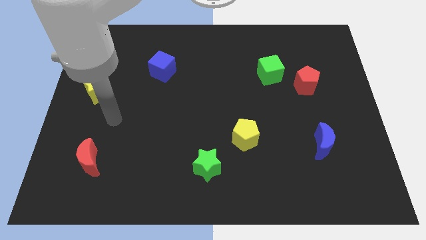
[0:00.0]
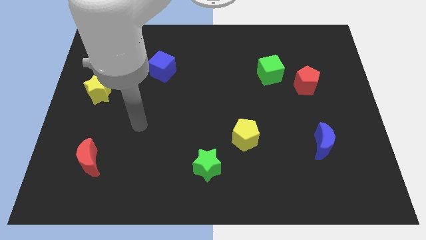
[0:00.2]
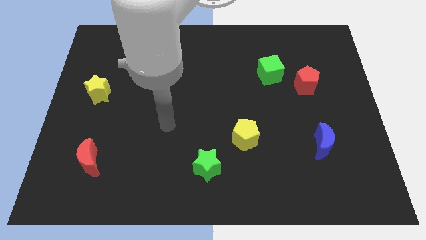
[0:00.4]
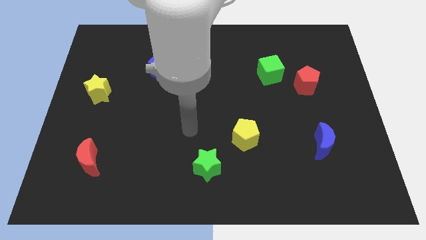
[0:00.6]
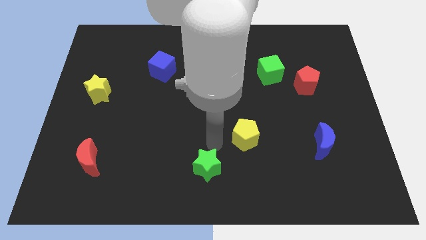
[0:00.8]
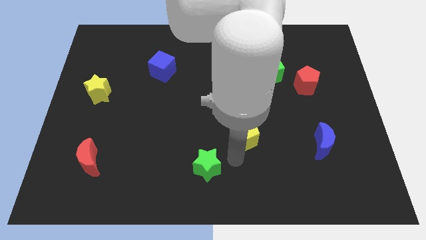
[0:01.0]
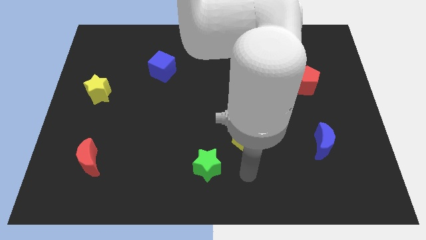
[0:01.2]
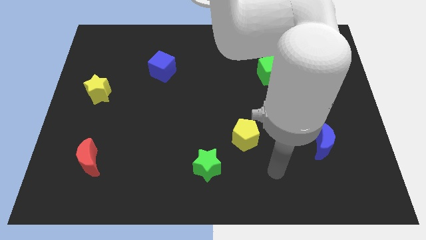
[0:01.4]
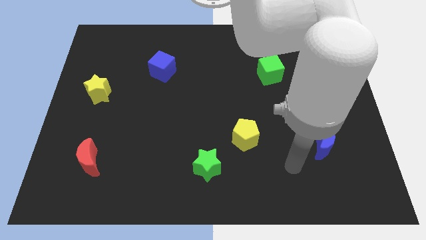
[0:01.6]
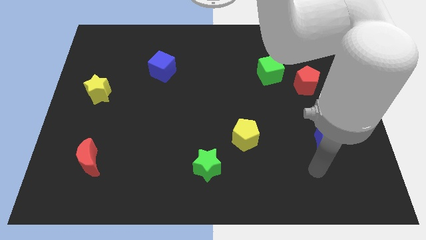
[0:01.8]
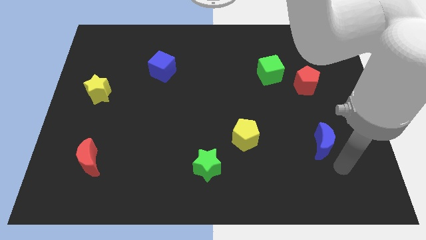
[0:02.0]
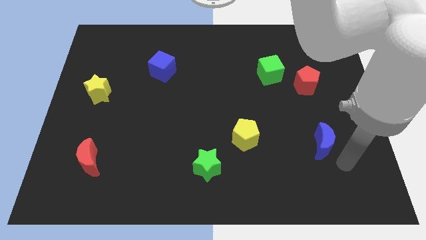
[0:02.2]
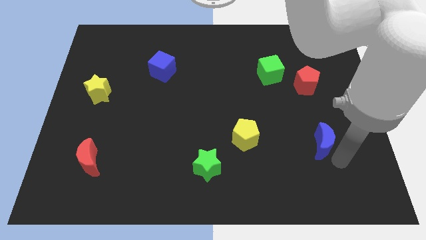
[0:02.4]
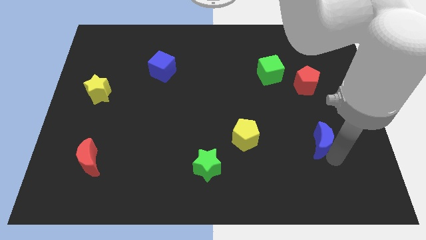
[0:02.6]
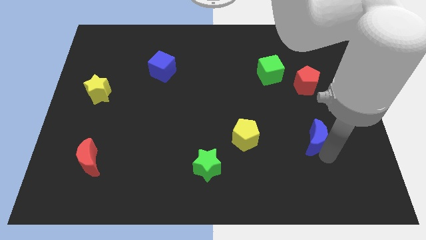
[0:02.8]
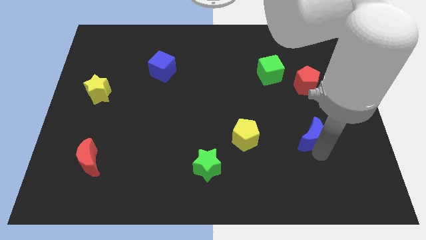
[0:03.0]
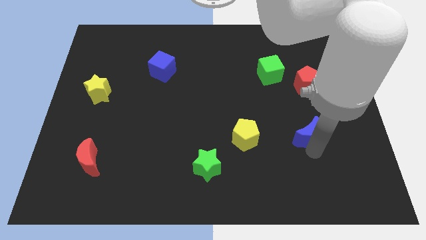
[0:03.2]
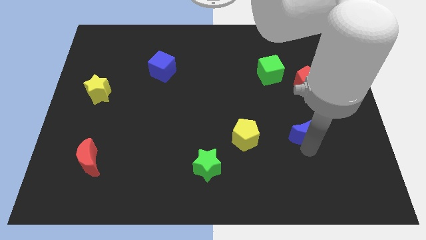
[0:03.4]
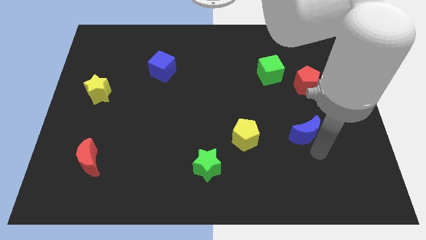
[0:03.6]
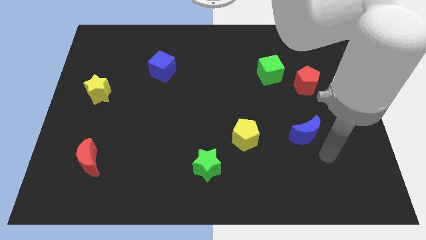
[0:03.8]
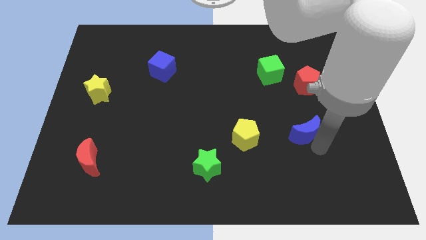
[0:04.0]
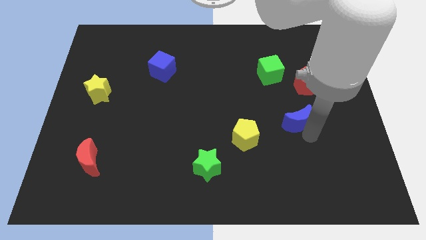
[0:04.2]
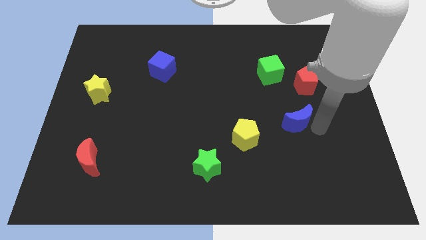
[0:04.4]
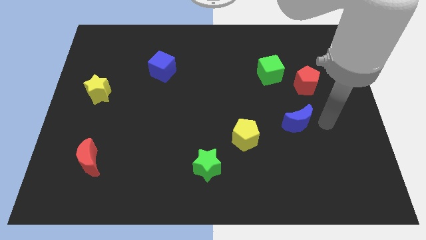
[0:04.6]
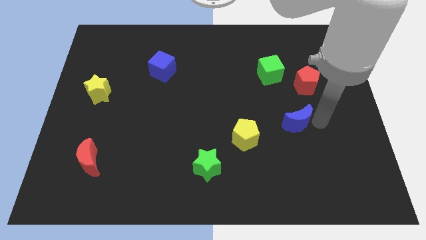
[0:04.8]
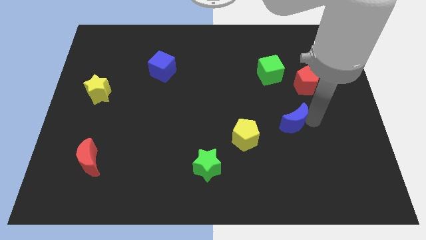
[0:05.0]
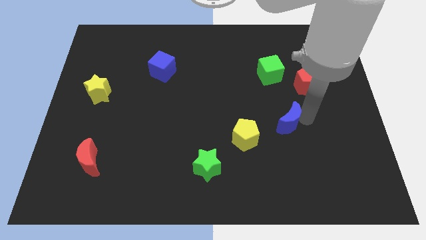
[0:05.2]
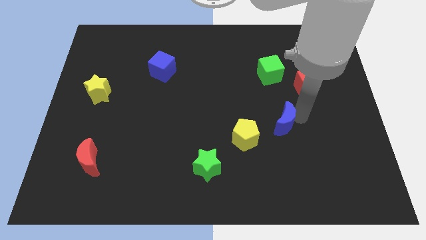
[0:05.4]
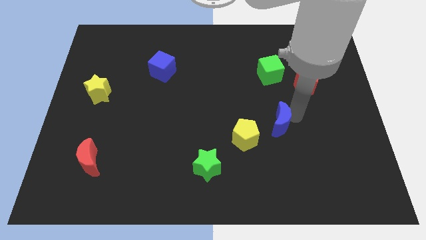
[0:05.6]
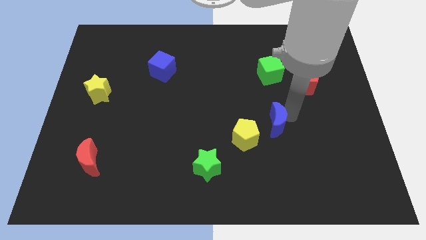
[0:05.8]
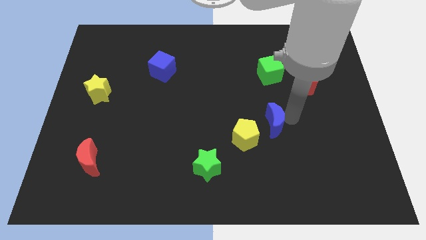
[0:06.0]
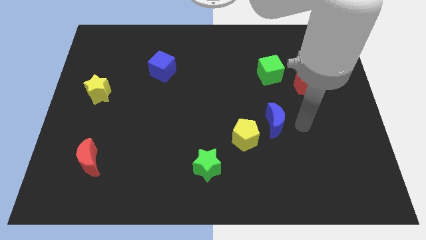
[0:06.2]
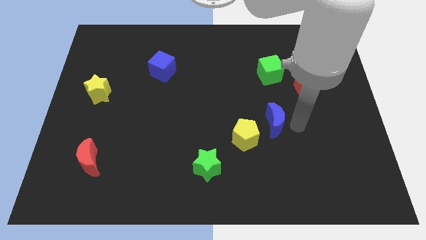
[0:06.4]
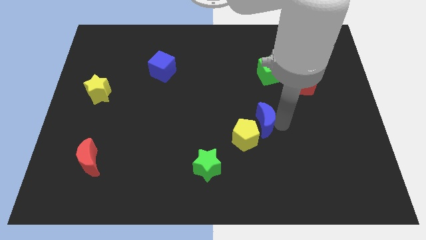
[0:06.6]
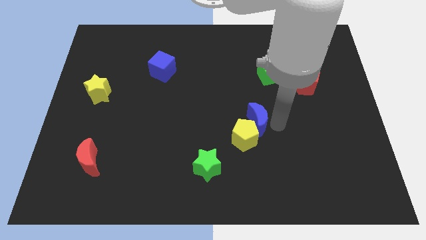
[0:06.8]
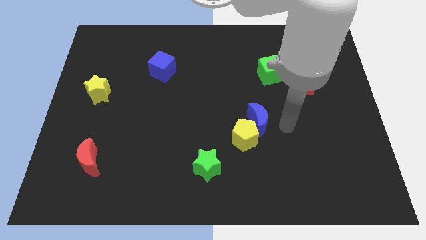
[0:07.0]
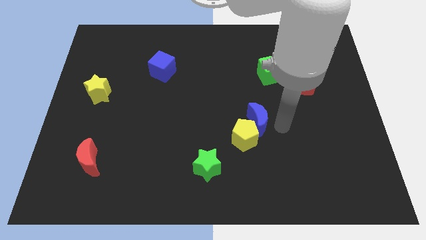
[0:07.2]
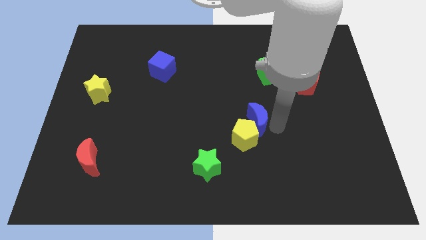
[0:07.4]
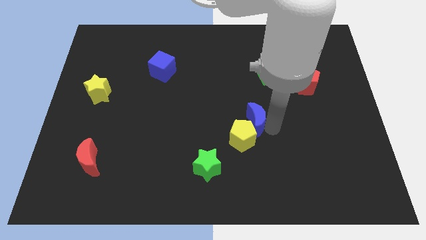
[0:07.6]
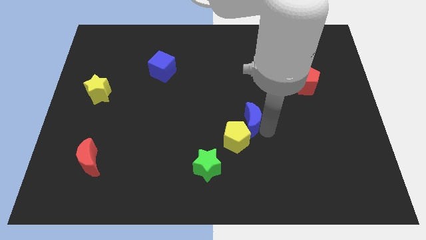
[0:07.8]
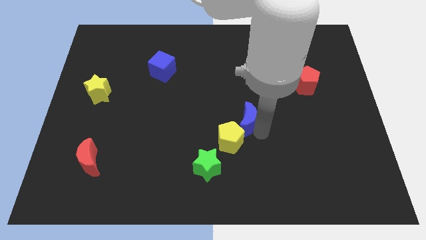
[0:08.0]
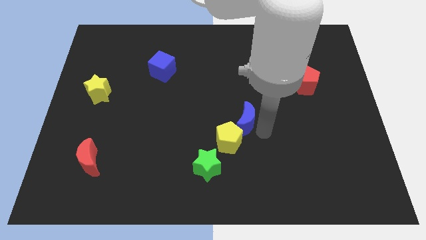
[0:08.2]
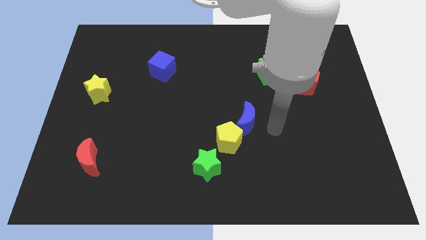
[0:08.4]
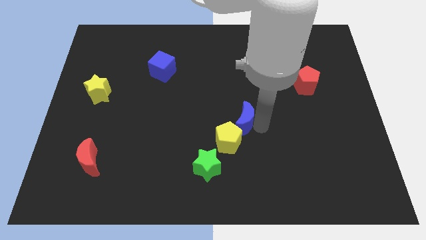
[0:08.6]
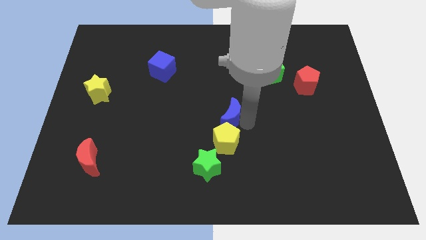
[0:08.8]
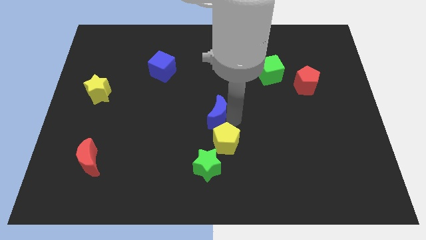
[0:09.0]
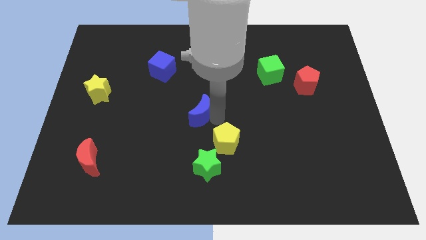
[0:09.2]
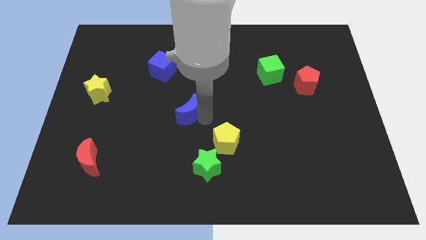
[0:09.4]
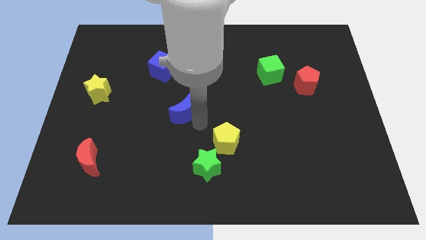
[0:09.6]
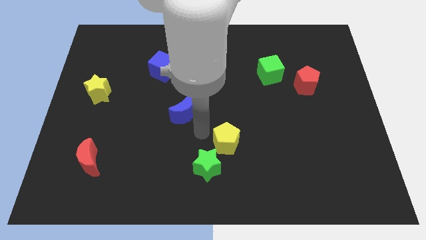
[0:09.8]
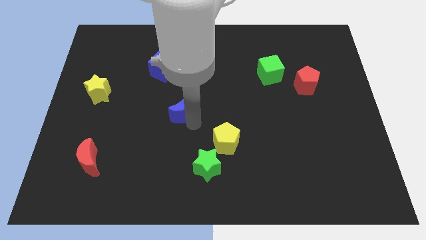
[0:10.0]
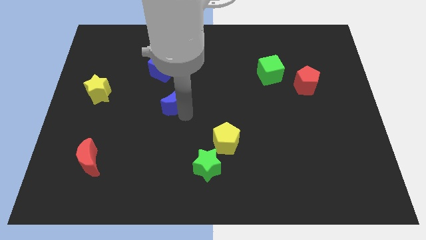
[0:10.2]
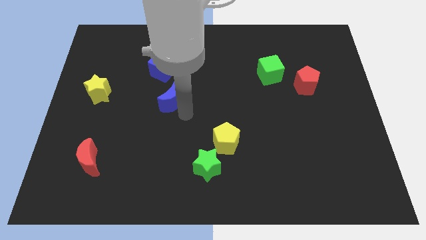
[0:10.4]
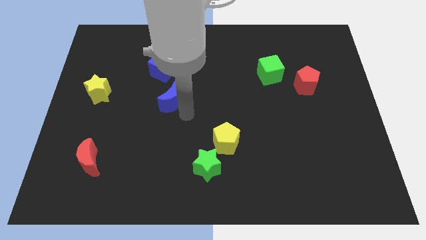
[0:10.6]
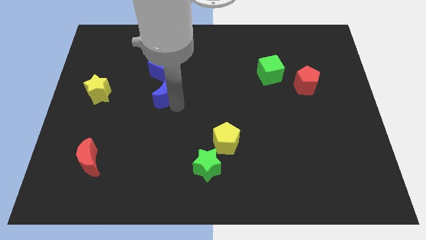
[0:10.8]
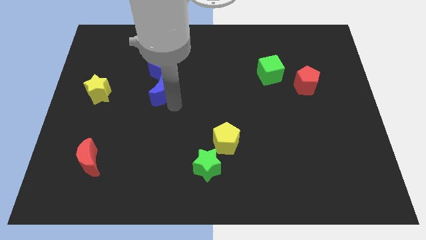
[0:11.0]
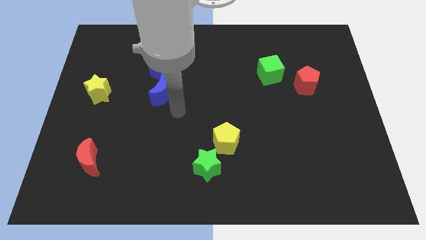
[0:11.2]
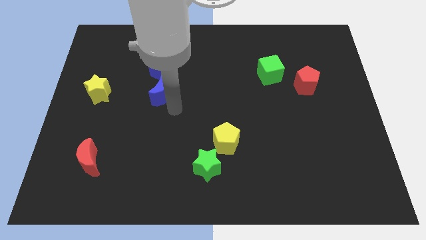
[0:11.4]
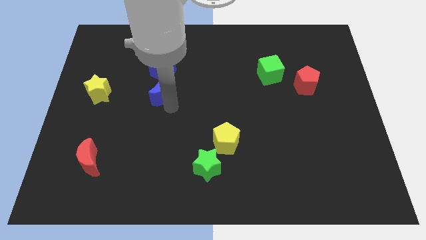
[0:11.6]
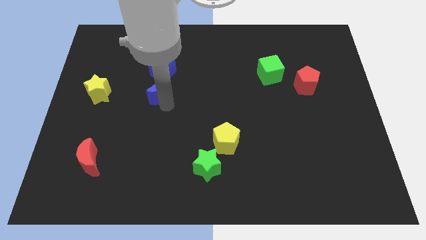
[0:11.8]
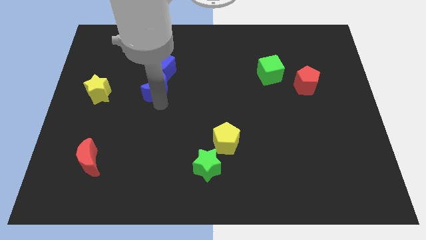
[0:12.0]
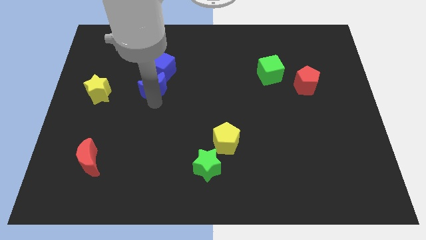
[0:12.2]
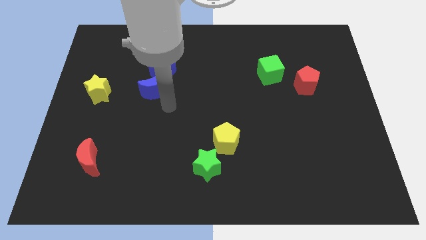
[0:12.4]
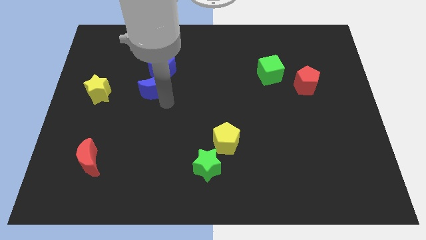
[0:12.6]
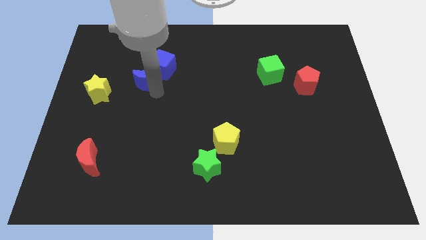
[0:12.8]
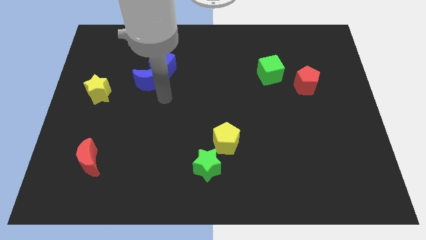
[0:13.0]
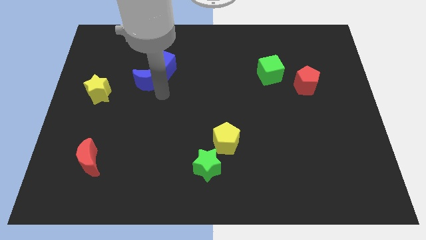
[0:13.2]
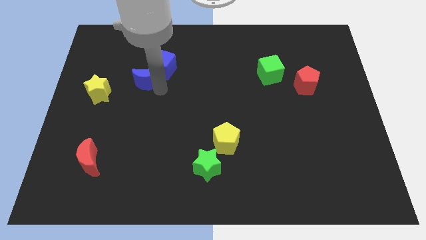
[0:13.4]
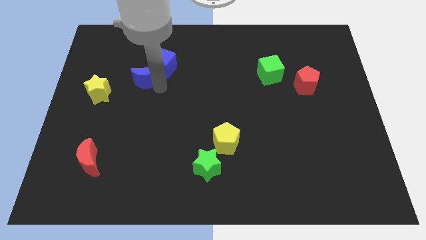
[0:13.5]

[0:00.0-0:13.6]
move the blue moon to the left of the blue cube
